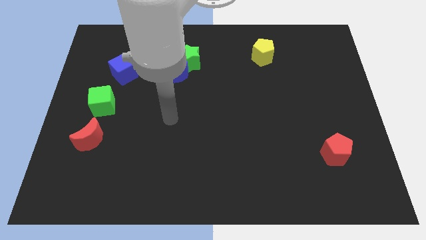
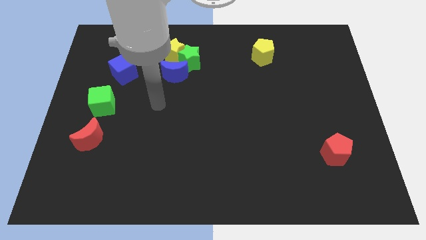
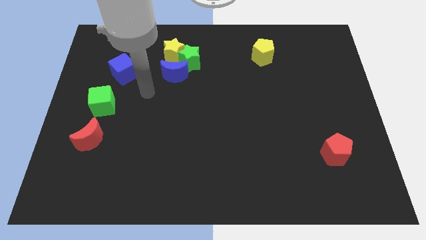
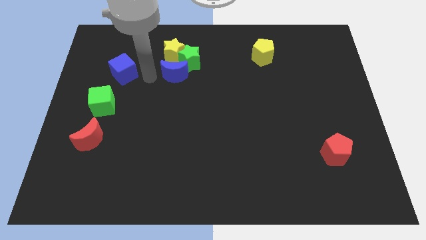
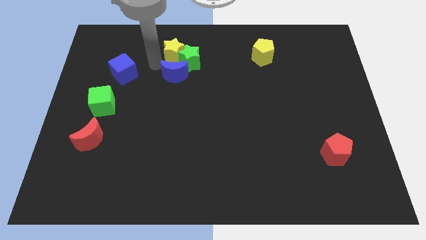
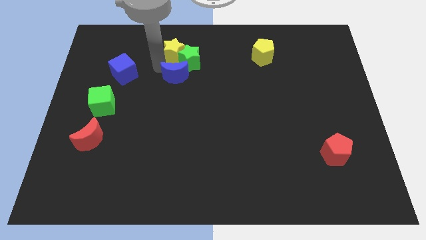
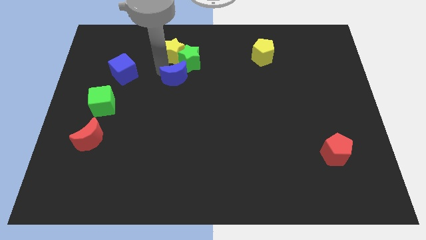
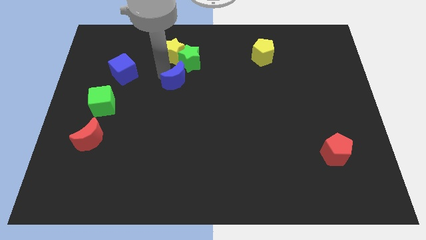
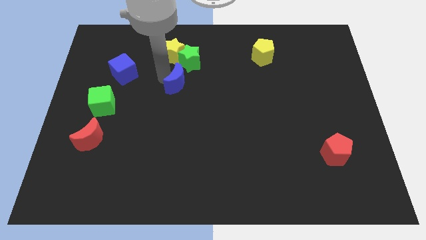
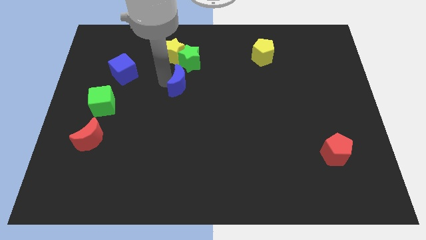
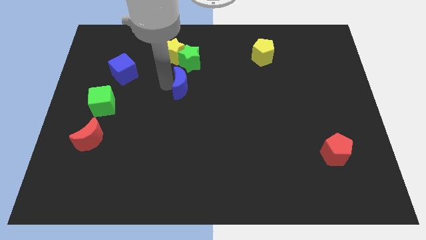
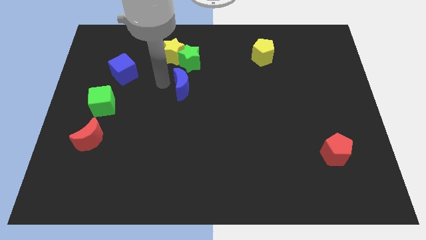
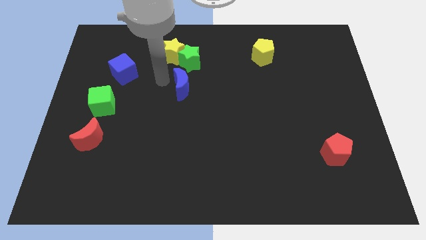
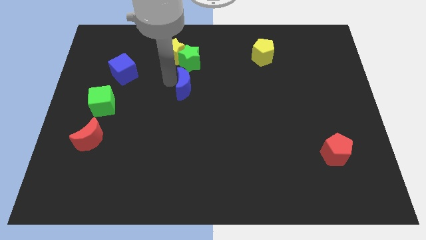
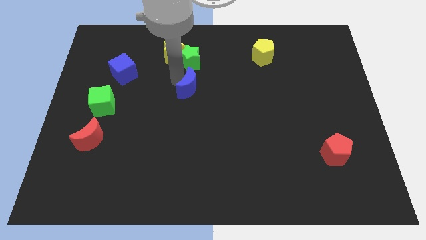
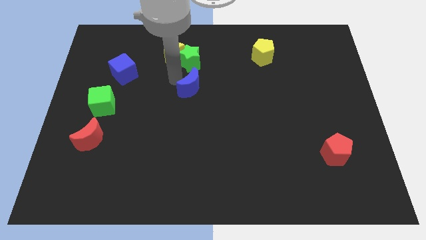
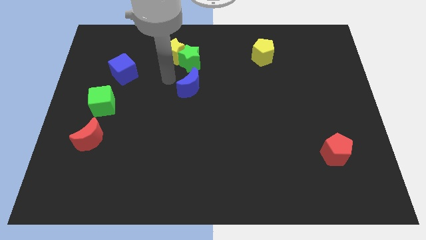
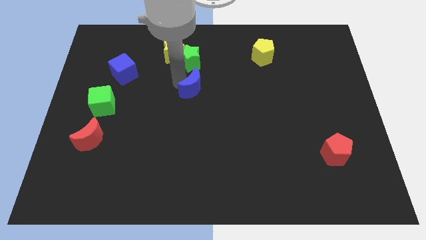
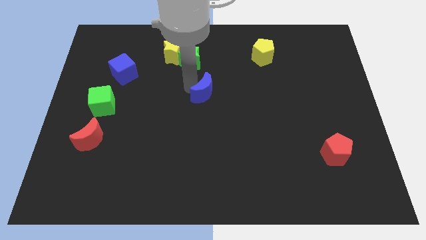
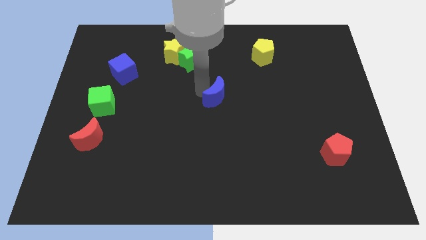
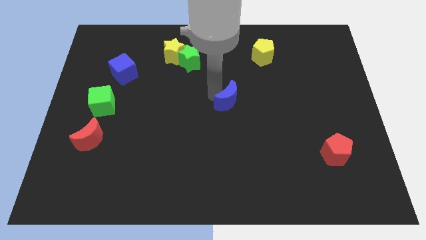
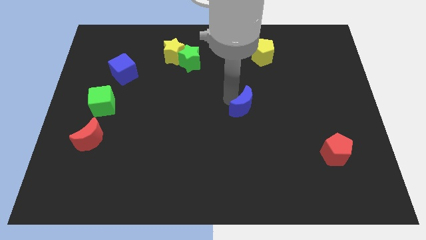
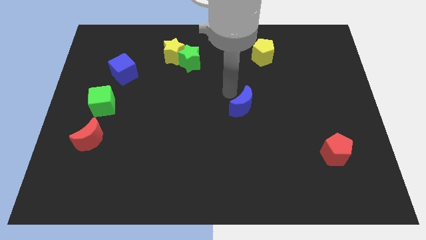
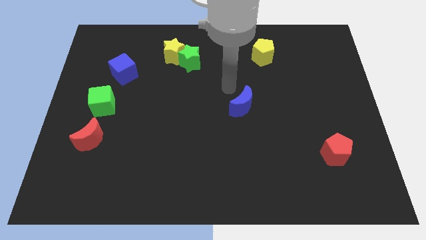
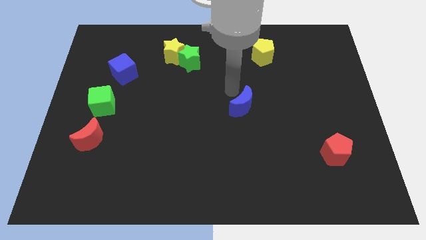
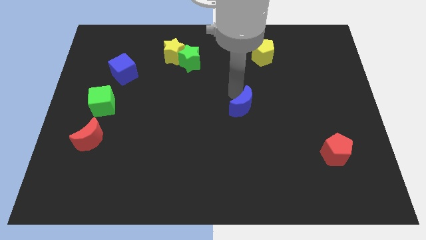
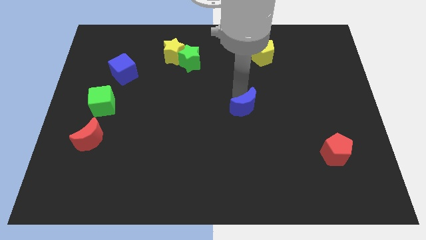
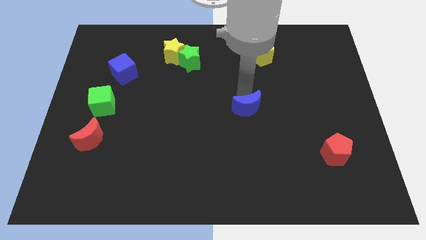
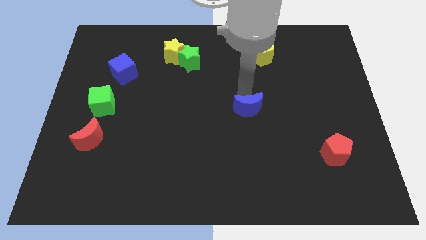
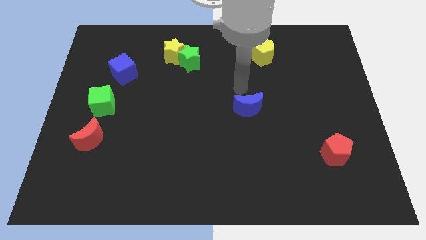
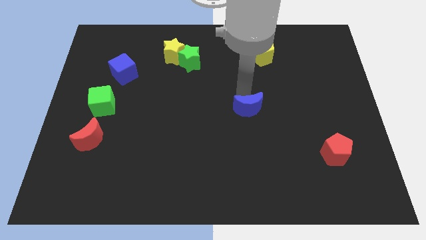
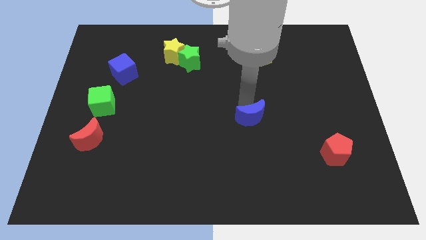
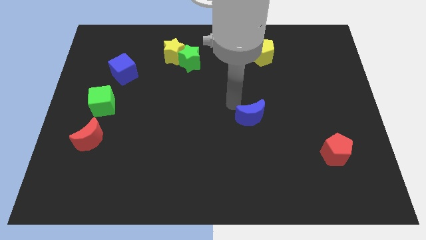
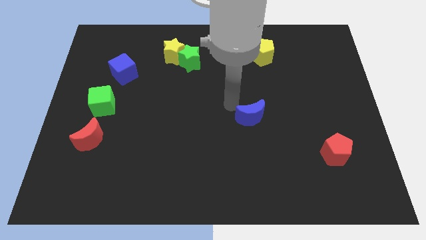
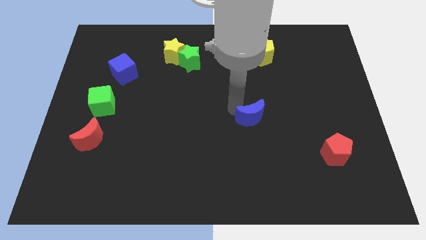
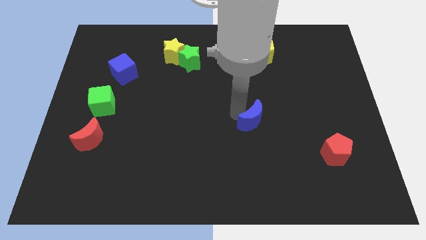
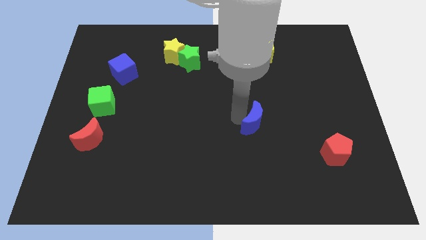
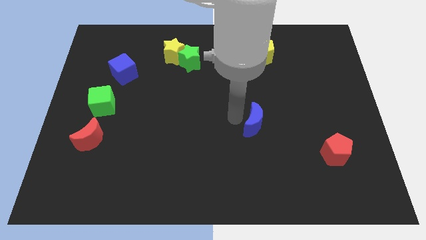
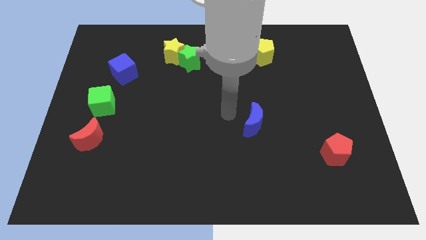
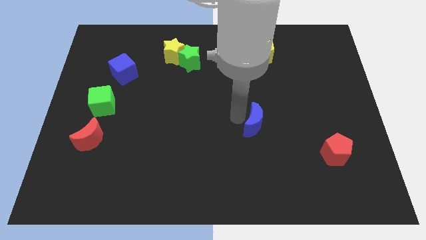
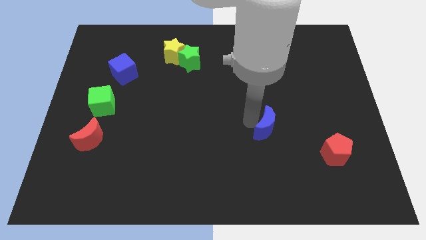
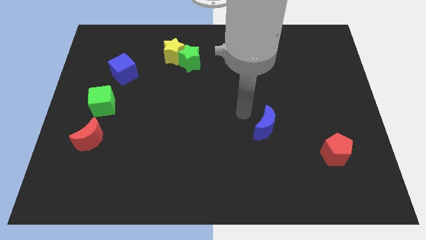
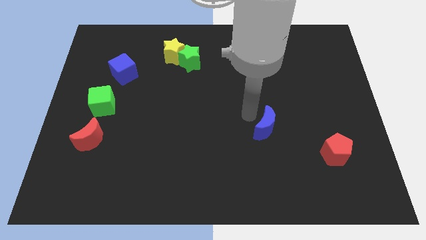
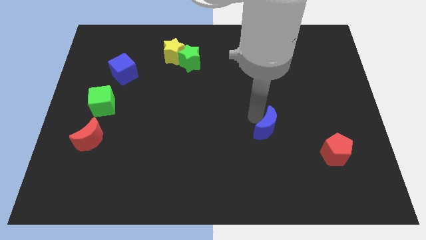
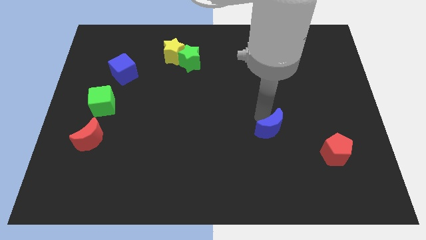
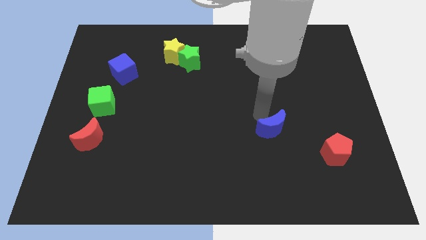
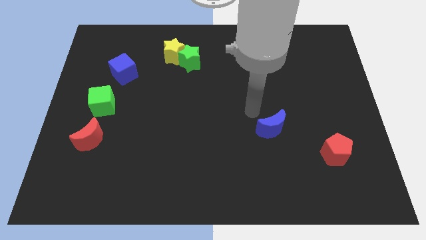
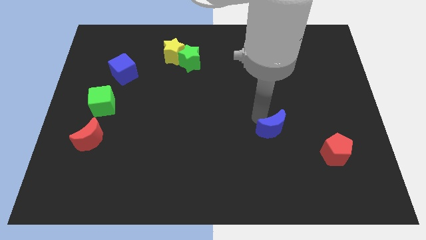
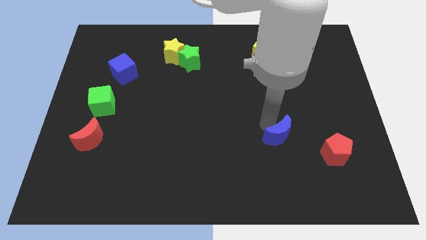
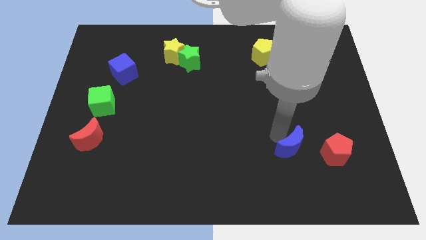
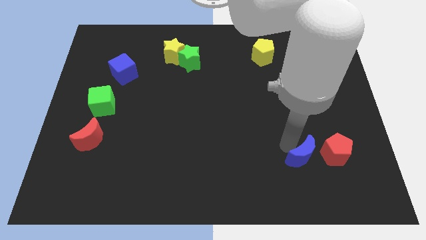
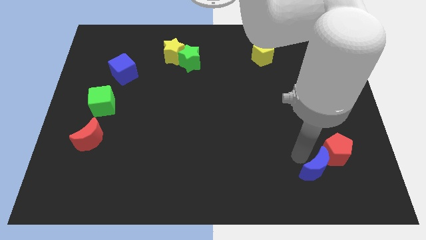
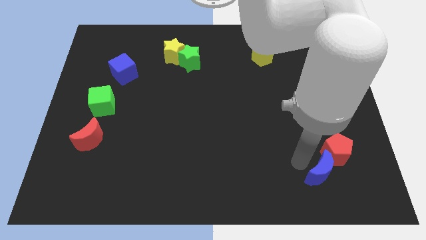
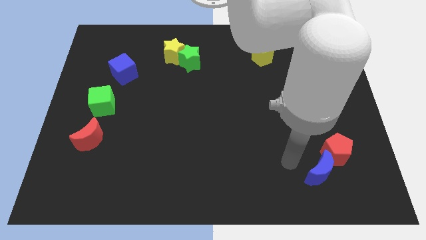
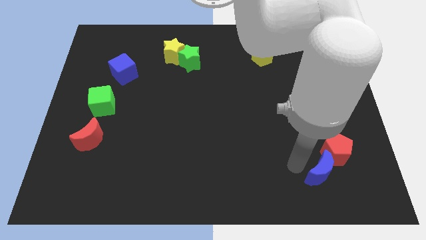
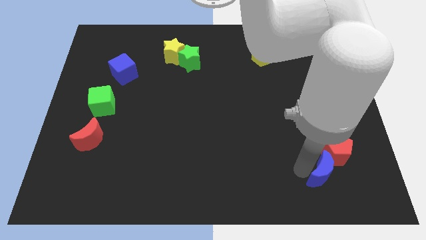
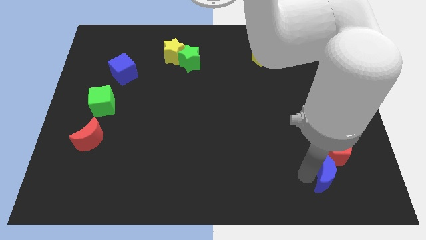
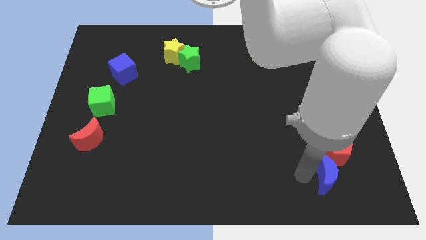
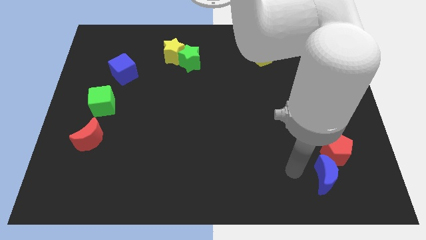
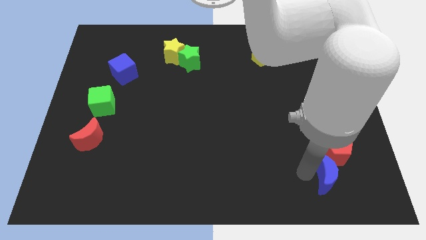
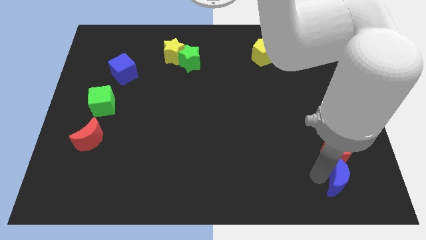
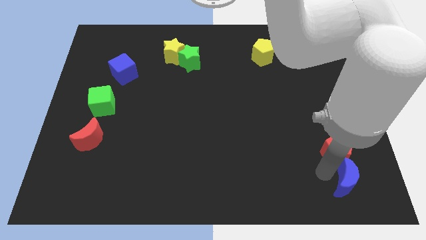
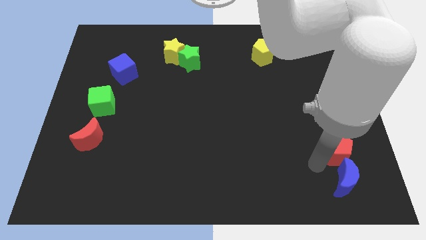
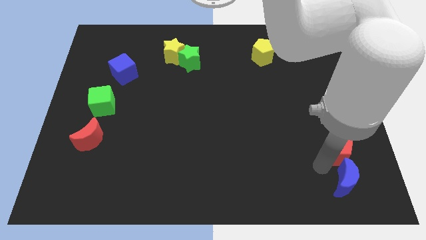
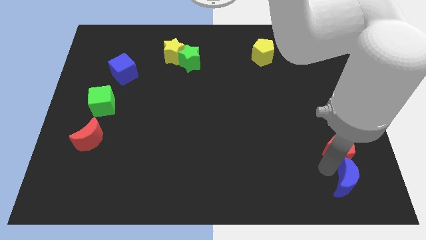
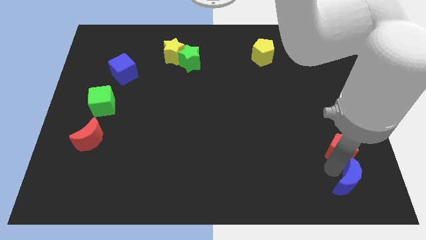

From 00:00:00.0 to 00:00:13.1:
move the blue moon to the bottom right of the board
